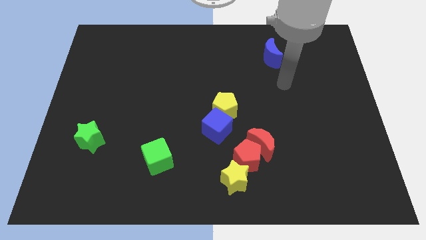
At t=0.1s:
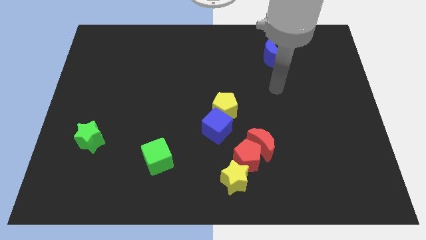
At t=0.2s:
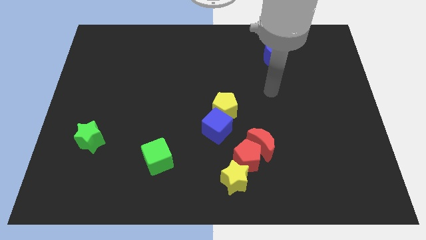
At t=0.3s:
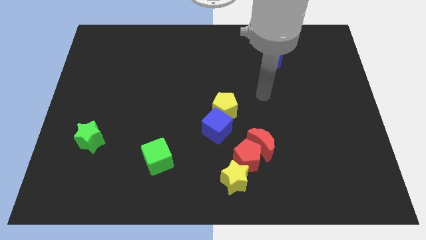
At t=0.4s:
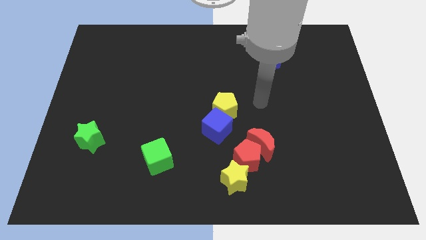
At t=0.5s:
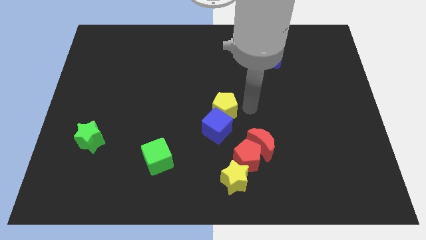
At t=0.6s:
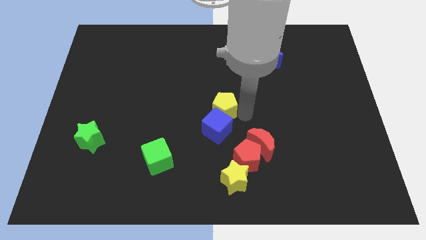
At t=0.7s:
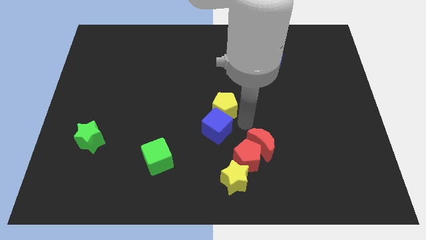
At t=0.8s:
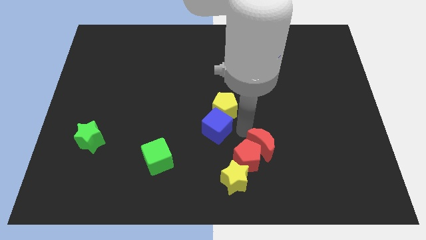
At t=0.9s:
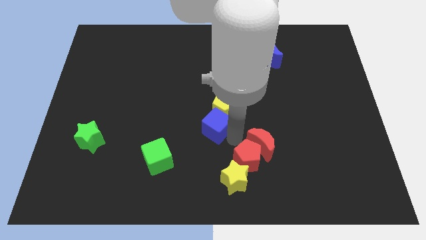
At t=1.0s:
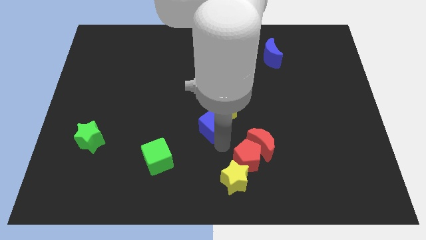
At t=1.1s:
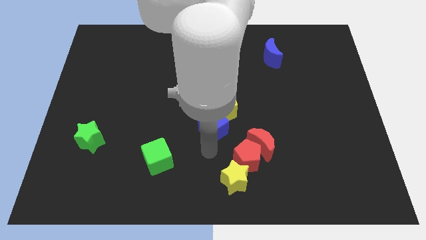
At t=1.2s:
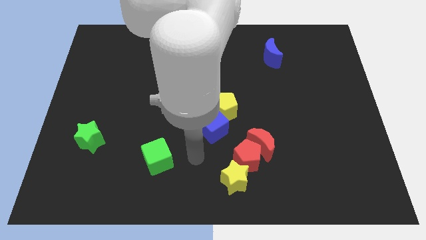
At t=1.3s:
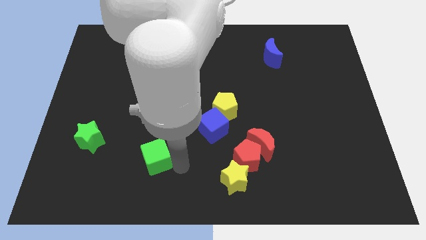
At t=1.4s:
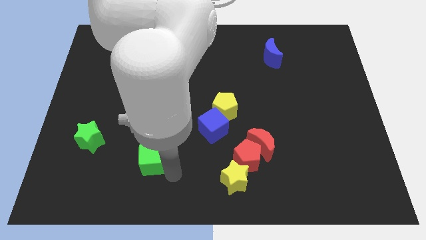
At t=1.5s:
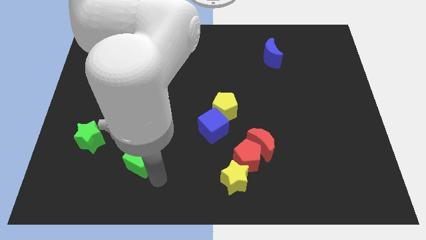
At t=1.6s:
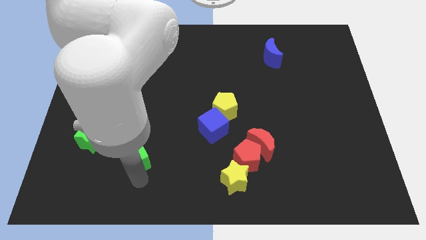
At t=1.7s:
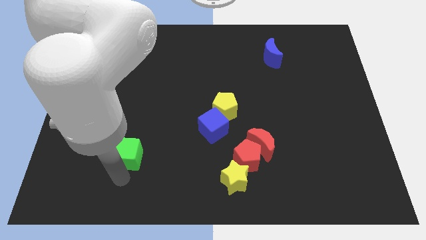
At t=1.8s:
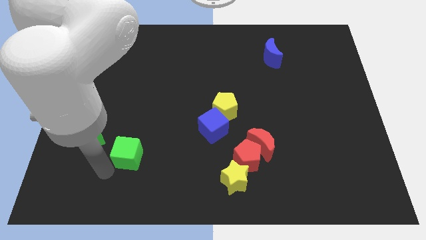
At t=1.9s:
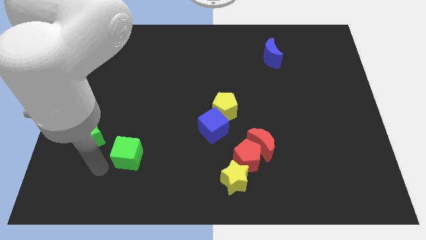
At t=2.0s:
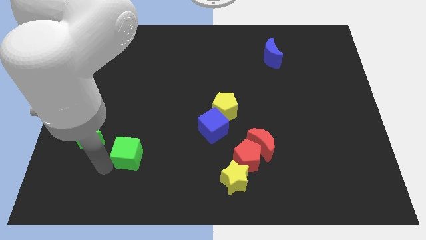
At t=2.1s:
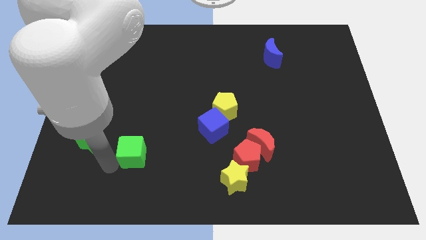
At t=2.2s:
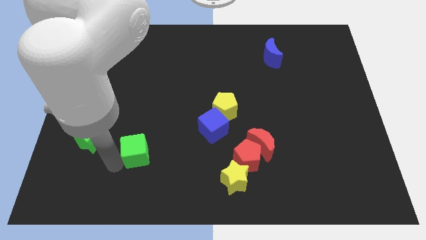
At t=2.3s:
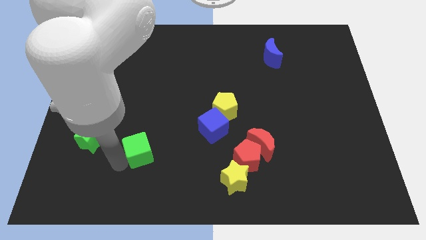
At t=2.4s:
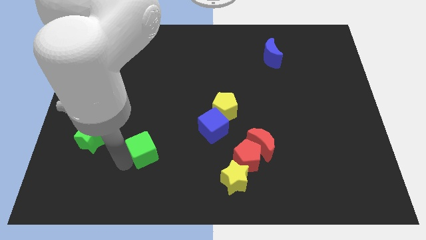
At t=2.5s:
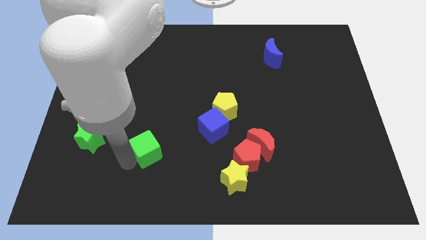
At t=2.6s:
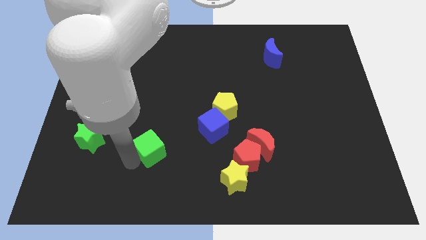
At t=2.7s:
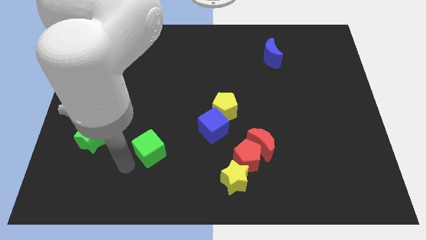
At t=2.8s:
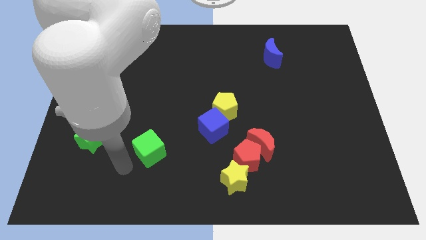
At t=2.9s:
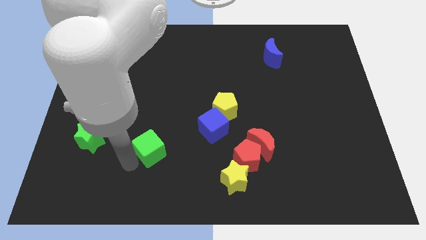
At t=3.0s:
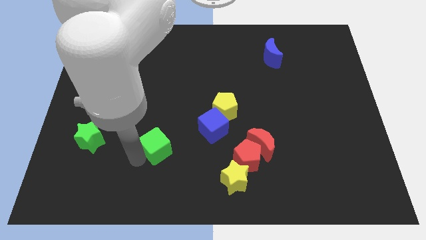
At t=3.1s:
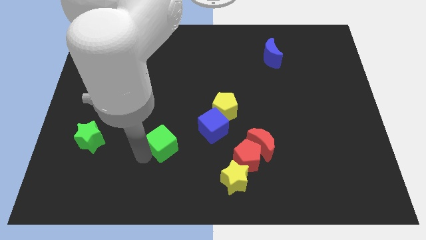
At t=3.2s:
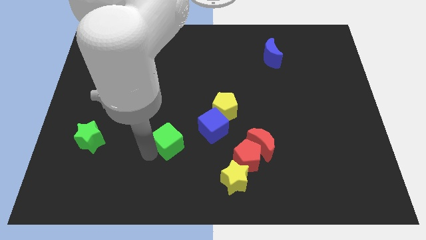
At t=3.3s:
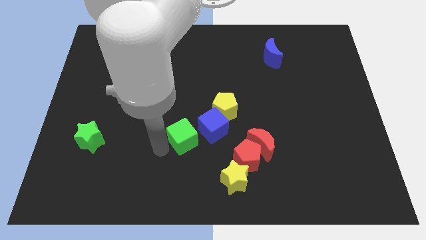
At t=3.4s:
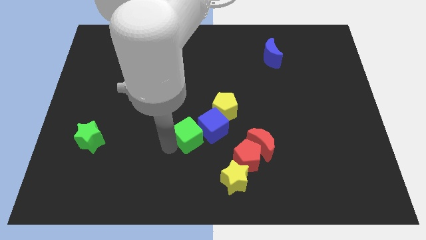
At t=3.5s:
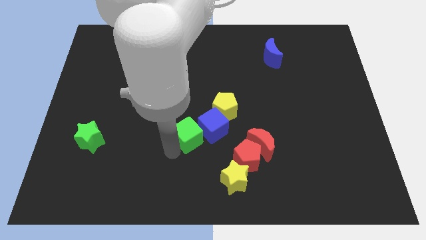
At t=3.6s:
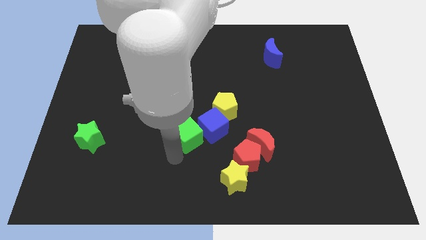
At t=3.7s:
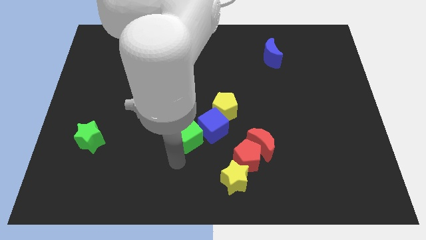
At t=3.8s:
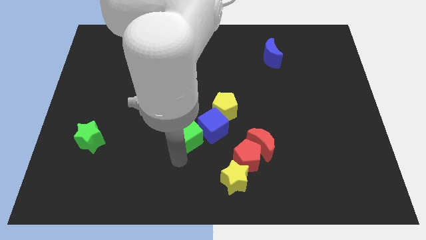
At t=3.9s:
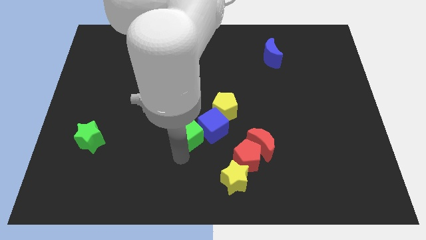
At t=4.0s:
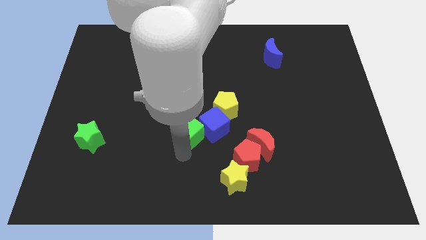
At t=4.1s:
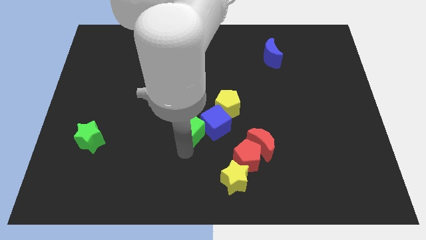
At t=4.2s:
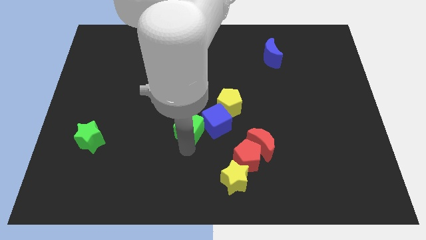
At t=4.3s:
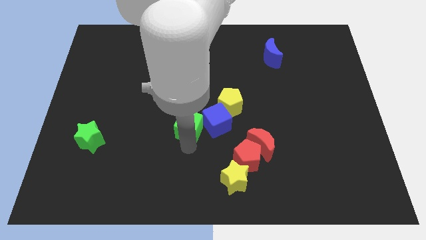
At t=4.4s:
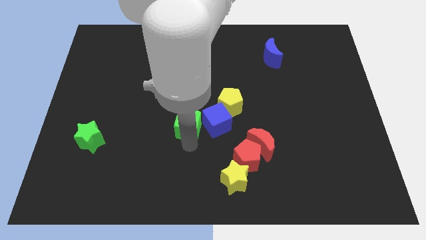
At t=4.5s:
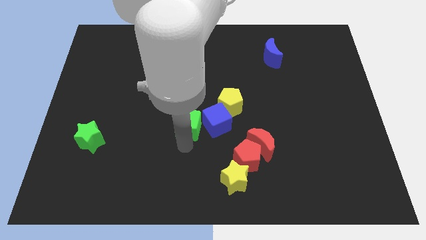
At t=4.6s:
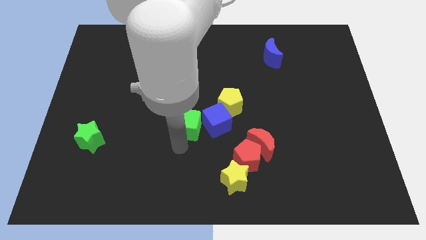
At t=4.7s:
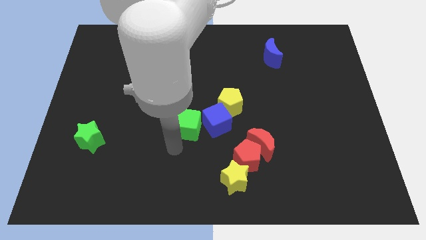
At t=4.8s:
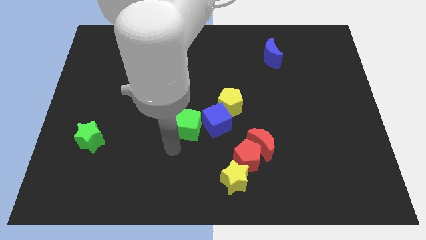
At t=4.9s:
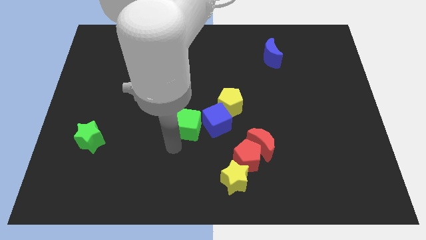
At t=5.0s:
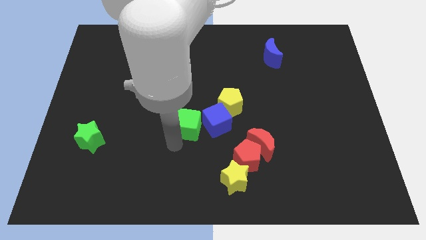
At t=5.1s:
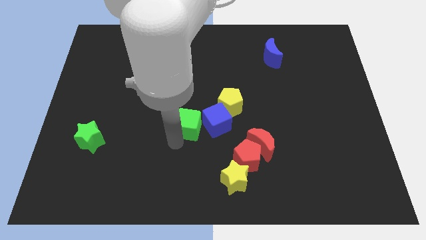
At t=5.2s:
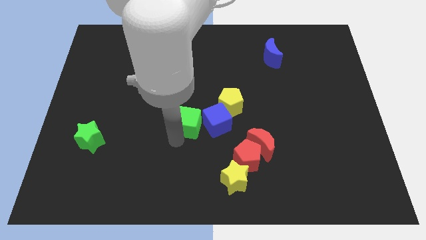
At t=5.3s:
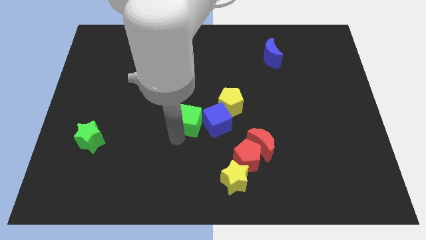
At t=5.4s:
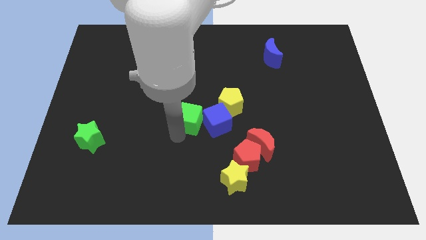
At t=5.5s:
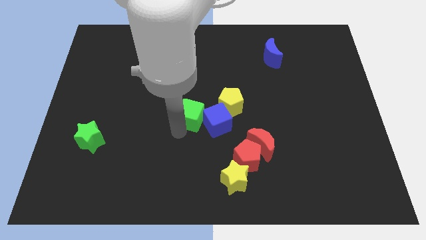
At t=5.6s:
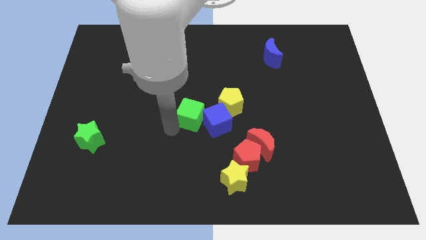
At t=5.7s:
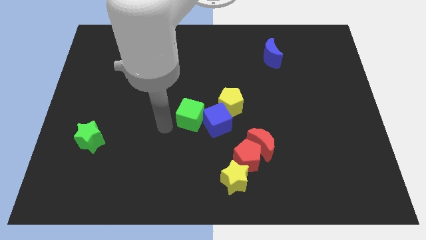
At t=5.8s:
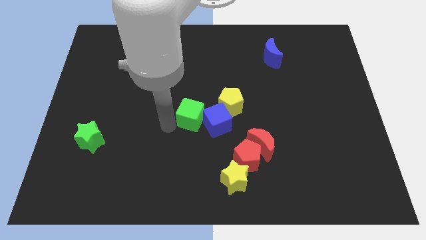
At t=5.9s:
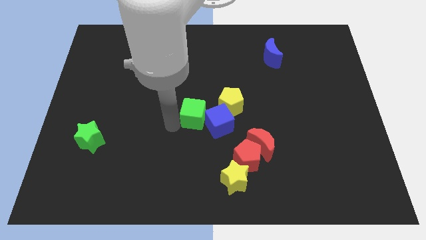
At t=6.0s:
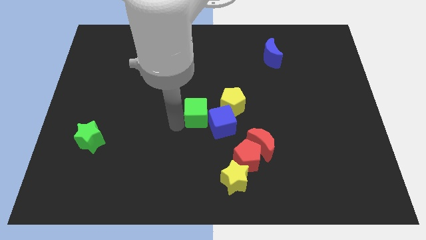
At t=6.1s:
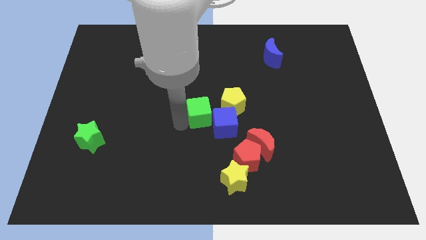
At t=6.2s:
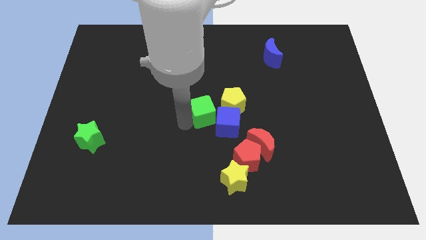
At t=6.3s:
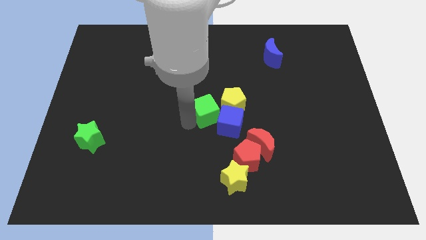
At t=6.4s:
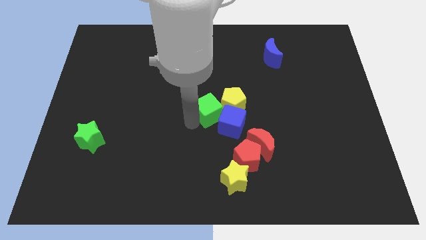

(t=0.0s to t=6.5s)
slide the green cube close to the yellow pentagon
